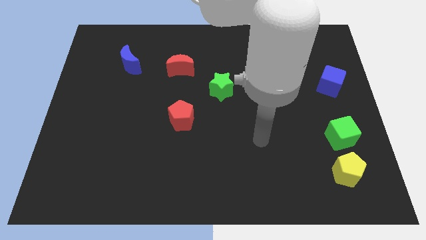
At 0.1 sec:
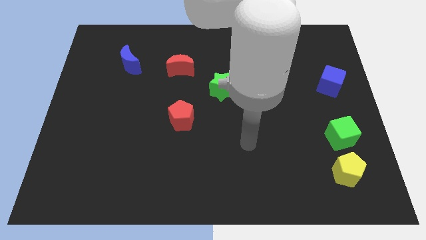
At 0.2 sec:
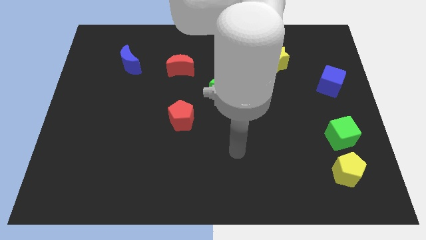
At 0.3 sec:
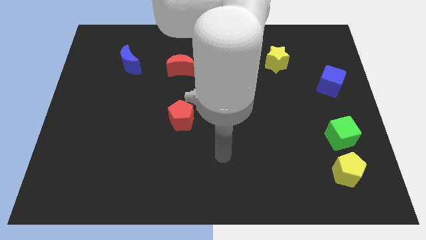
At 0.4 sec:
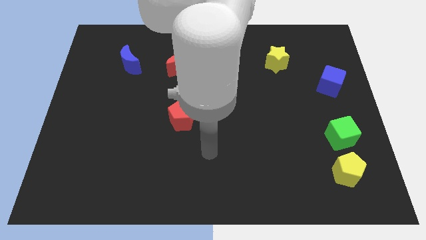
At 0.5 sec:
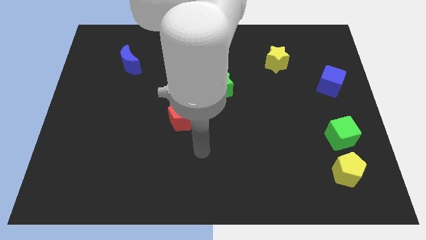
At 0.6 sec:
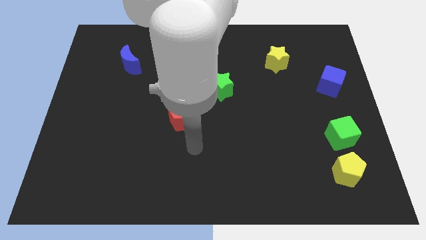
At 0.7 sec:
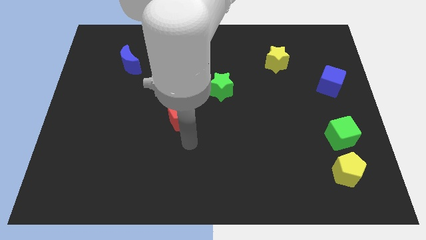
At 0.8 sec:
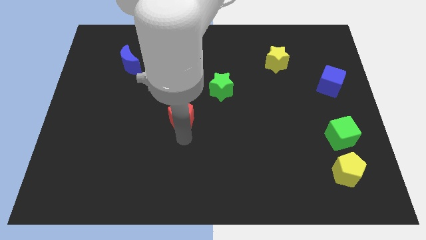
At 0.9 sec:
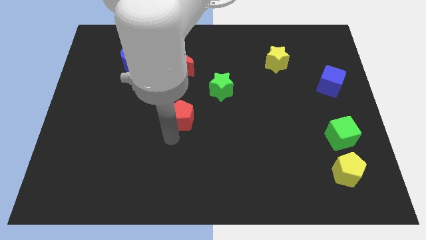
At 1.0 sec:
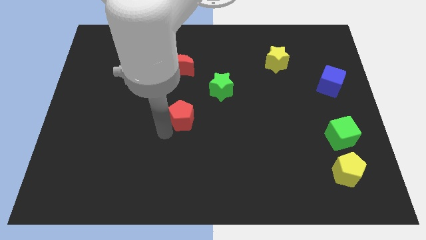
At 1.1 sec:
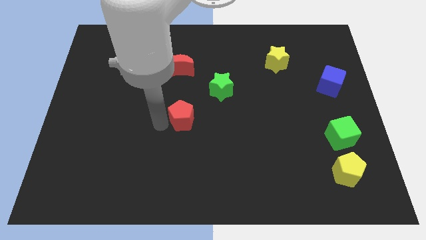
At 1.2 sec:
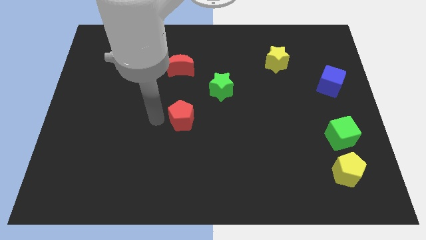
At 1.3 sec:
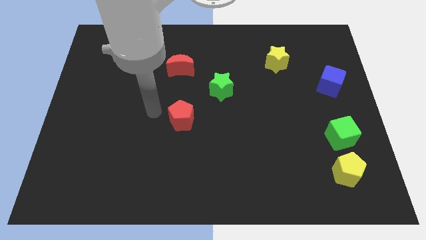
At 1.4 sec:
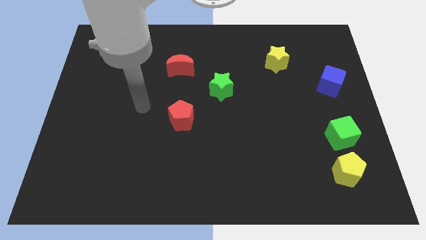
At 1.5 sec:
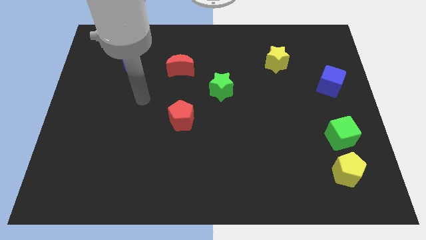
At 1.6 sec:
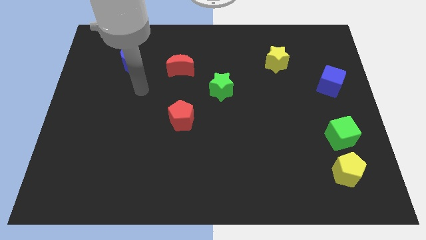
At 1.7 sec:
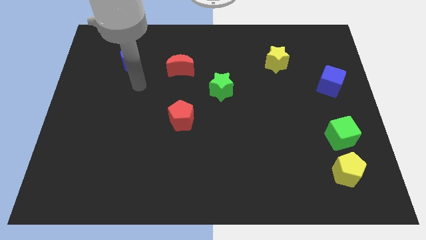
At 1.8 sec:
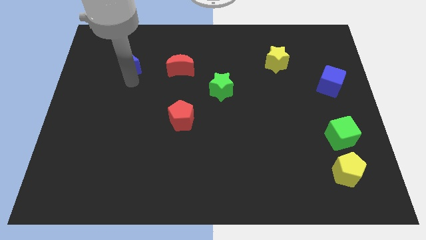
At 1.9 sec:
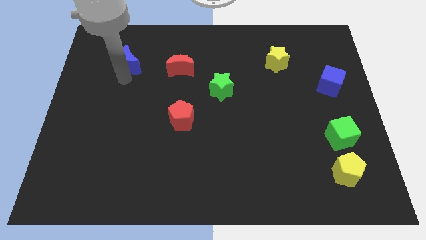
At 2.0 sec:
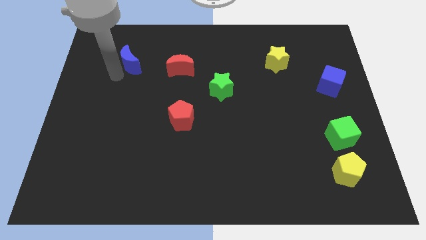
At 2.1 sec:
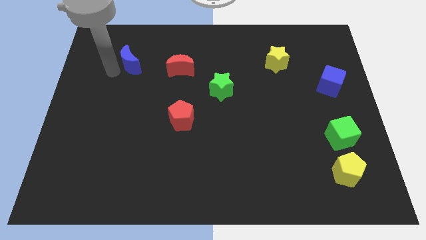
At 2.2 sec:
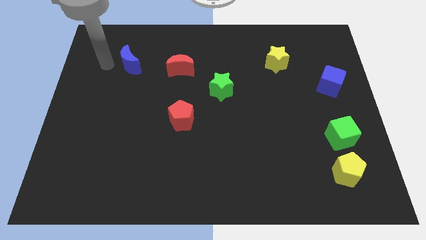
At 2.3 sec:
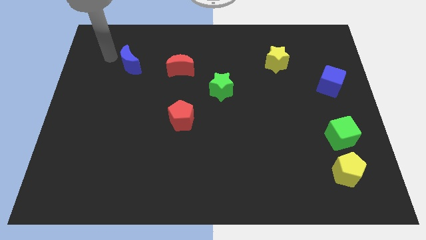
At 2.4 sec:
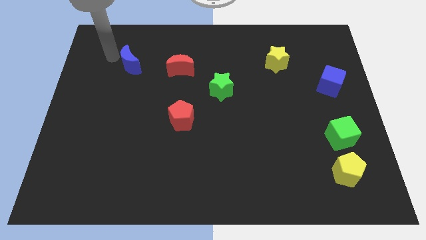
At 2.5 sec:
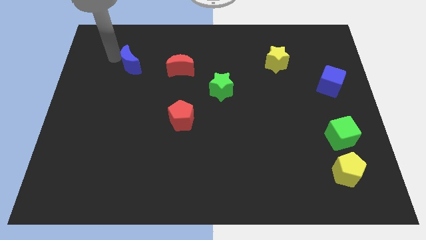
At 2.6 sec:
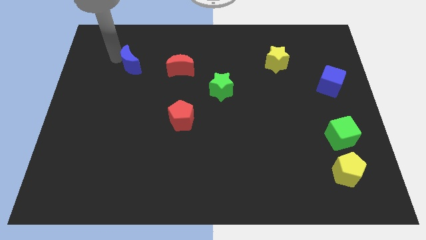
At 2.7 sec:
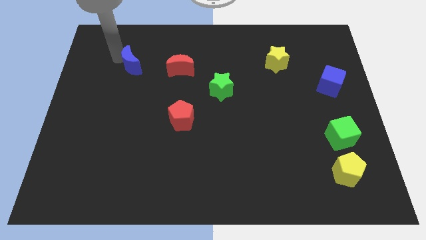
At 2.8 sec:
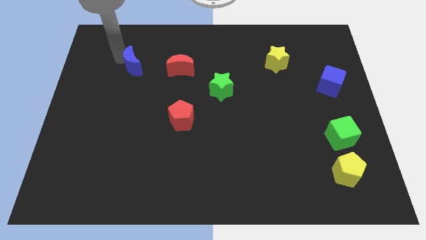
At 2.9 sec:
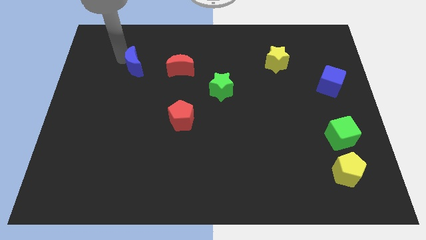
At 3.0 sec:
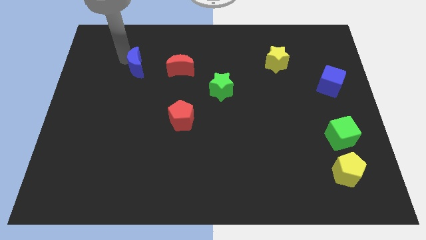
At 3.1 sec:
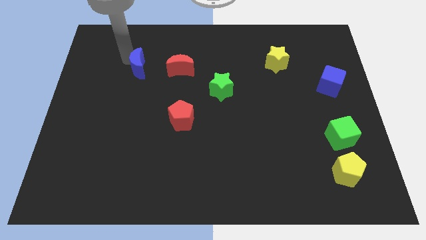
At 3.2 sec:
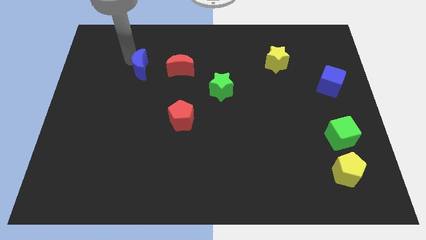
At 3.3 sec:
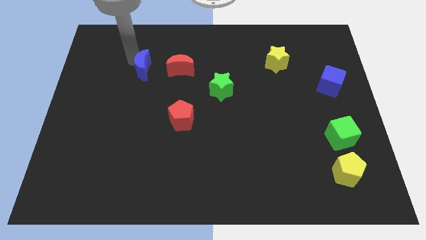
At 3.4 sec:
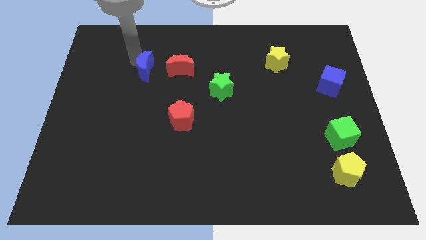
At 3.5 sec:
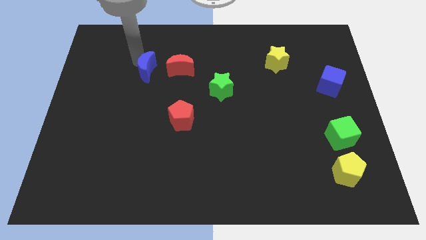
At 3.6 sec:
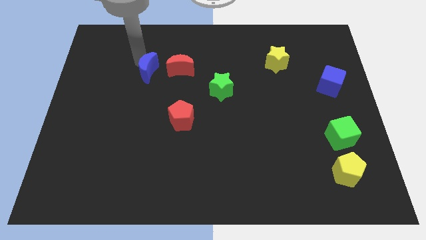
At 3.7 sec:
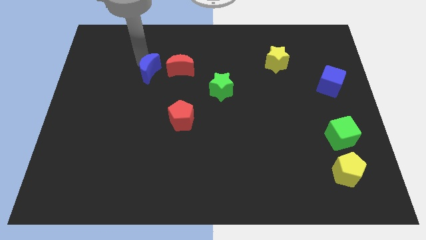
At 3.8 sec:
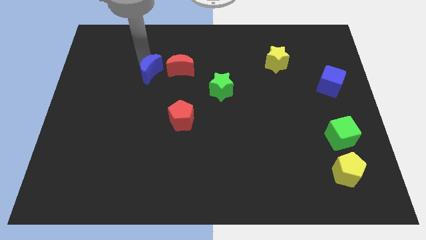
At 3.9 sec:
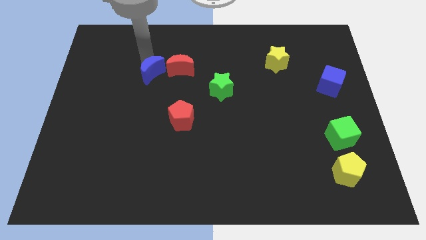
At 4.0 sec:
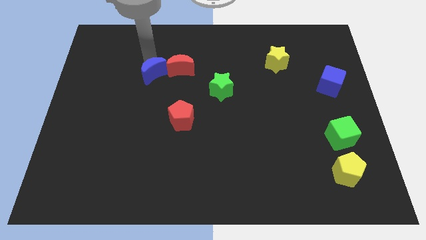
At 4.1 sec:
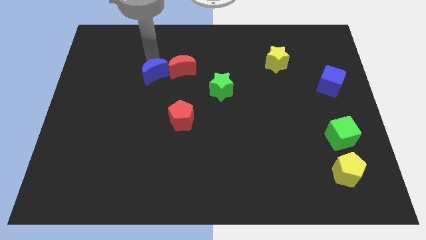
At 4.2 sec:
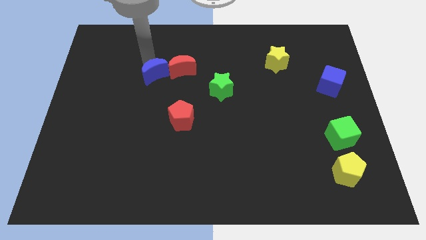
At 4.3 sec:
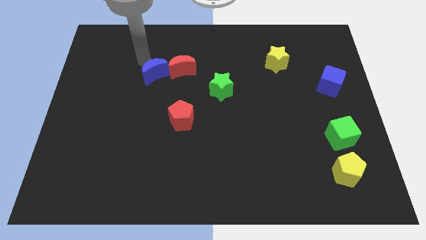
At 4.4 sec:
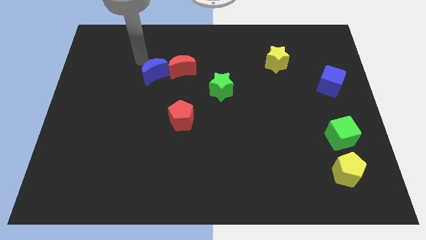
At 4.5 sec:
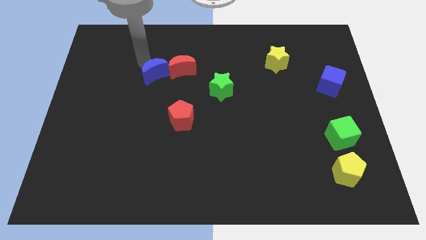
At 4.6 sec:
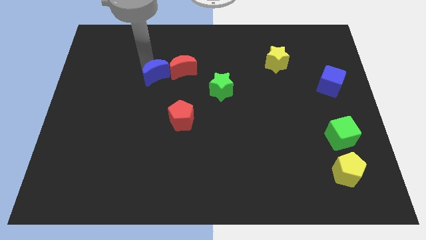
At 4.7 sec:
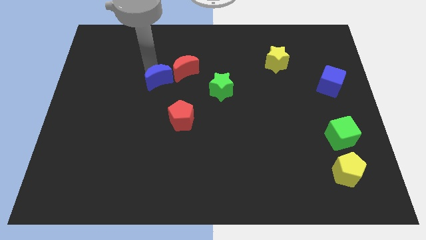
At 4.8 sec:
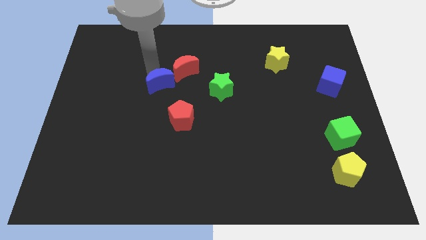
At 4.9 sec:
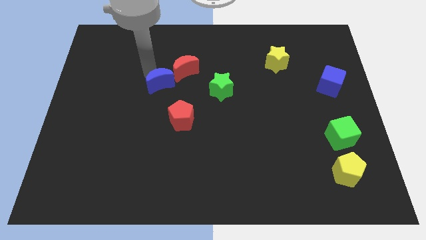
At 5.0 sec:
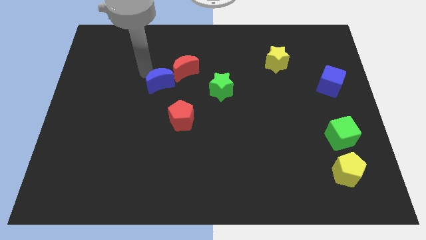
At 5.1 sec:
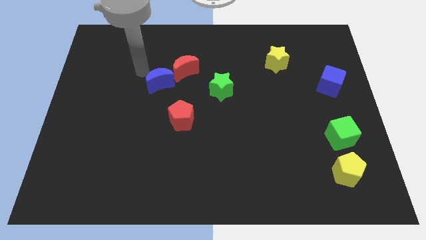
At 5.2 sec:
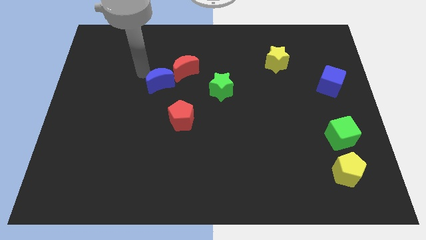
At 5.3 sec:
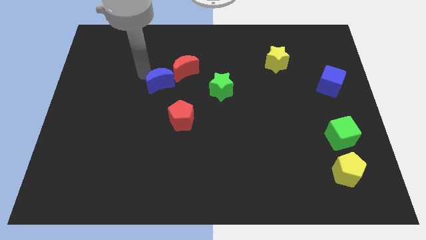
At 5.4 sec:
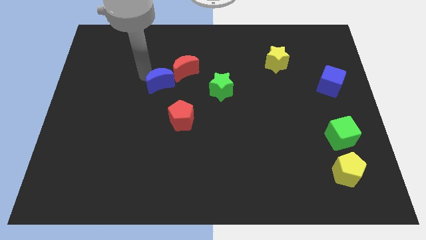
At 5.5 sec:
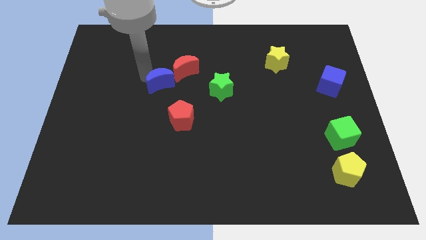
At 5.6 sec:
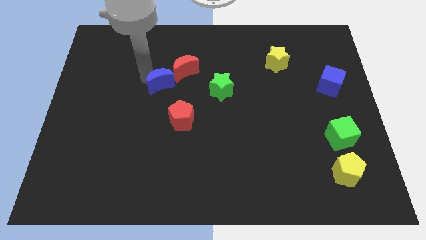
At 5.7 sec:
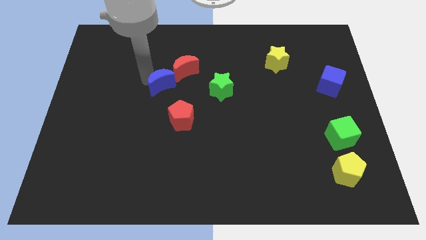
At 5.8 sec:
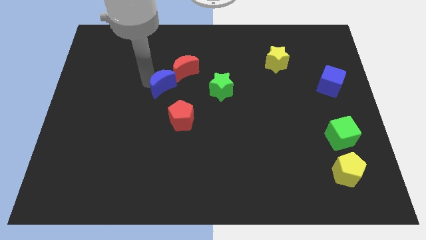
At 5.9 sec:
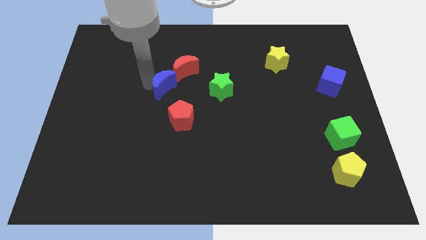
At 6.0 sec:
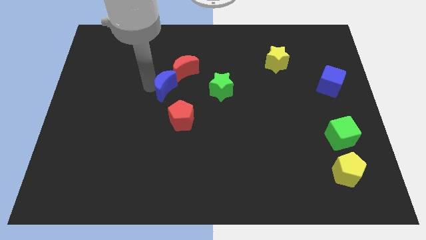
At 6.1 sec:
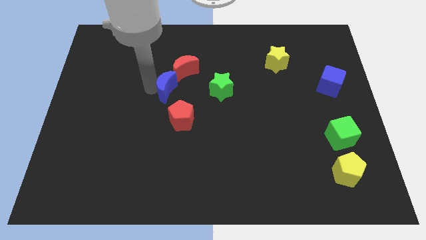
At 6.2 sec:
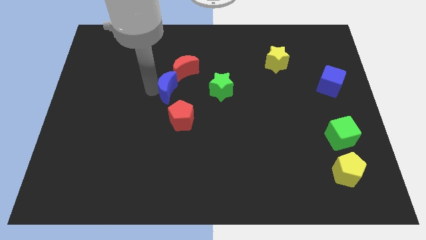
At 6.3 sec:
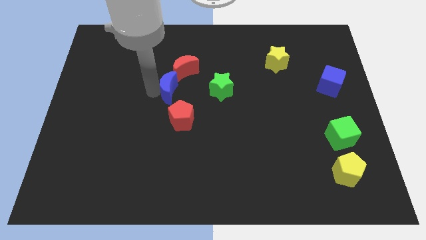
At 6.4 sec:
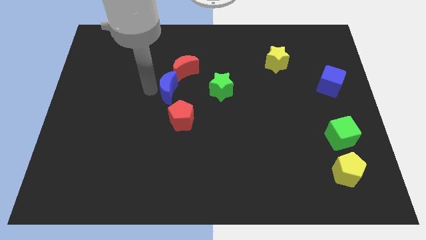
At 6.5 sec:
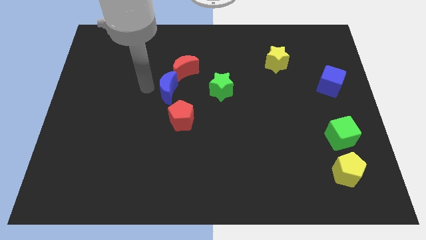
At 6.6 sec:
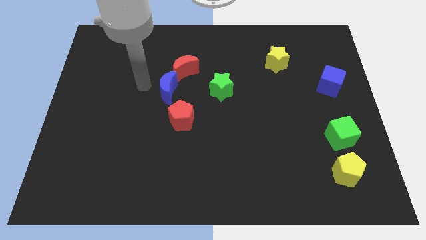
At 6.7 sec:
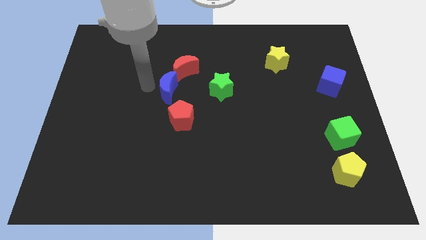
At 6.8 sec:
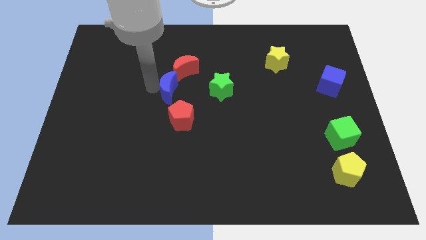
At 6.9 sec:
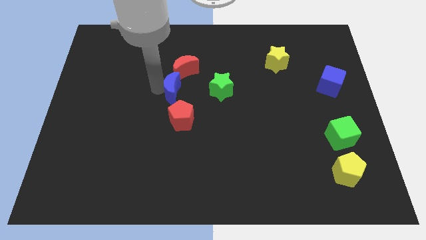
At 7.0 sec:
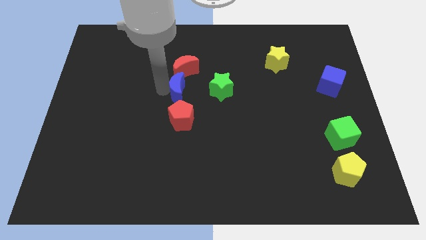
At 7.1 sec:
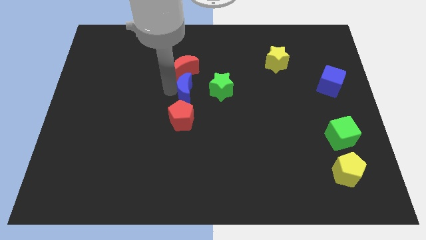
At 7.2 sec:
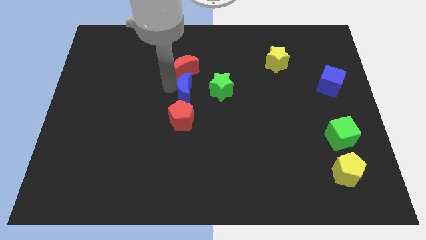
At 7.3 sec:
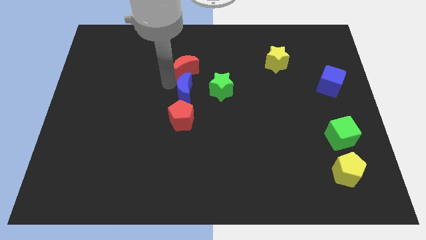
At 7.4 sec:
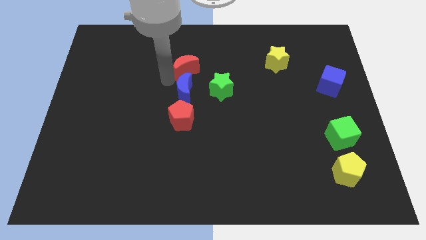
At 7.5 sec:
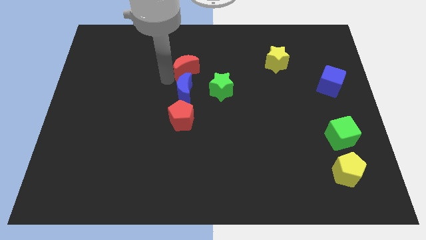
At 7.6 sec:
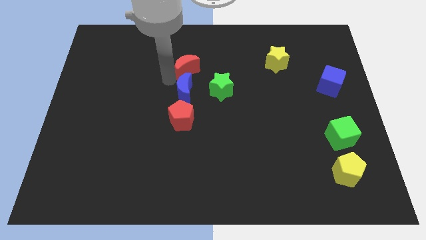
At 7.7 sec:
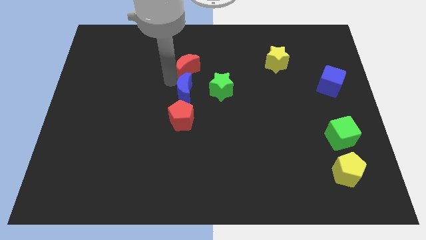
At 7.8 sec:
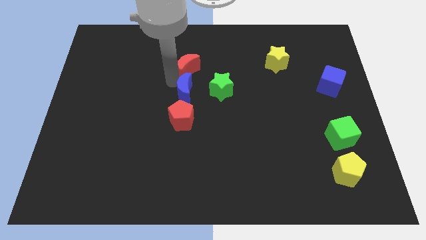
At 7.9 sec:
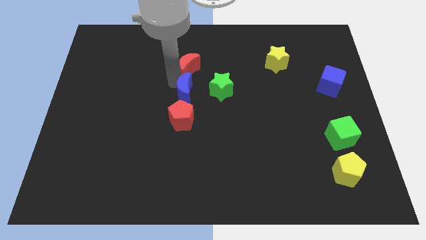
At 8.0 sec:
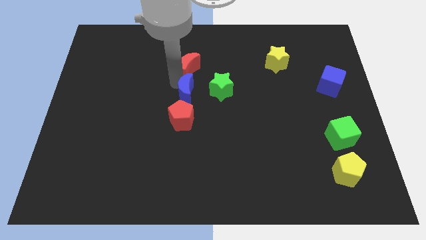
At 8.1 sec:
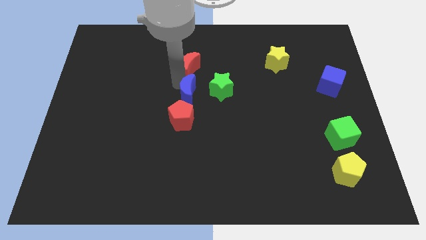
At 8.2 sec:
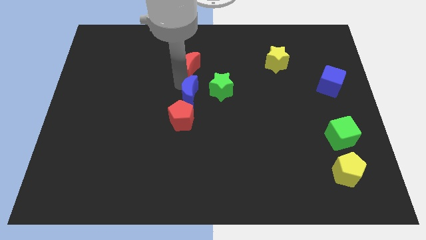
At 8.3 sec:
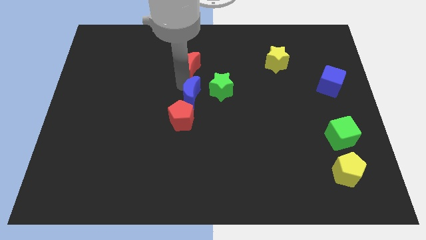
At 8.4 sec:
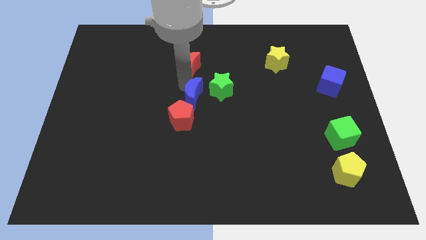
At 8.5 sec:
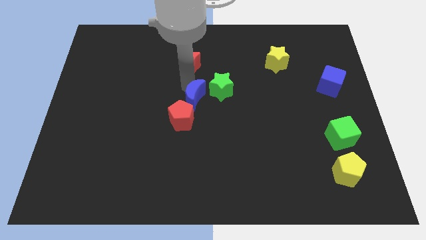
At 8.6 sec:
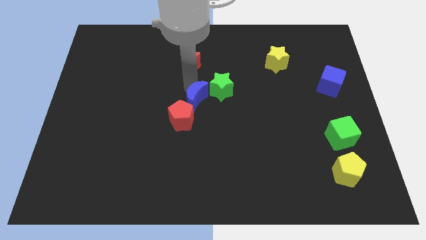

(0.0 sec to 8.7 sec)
push the blue moon downwards and then right
